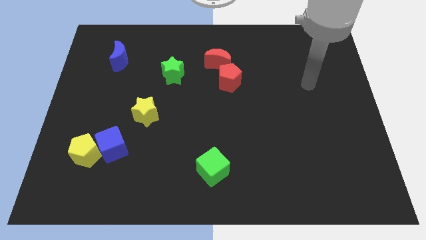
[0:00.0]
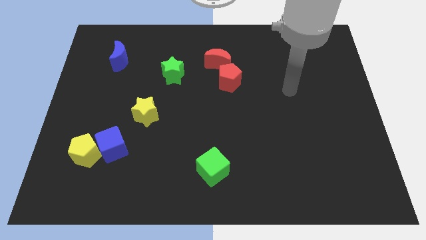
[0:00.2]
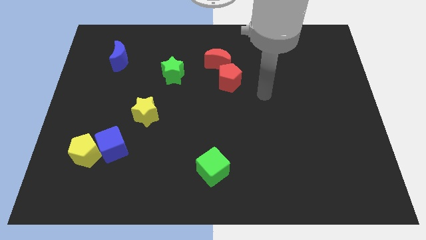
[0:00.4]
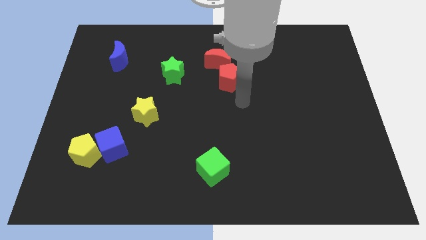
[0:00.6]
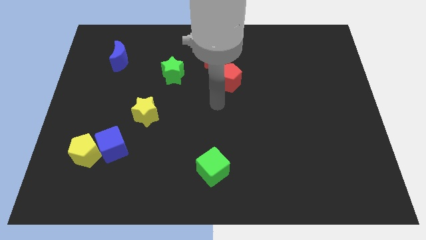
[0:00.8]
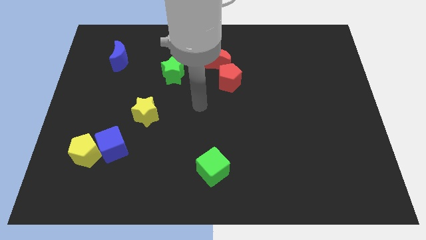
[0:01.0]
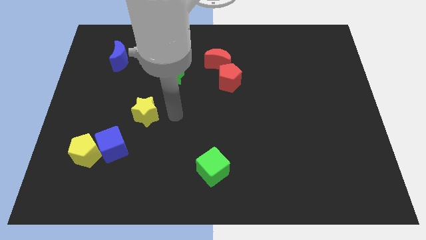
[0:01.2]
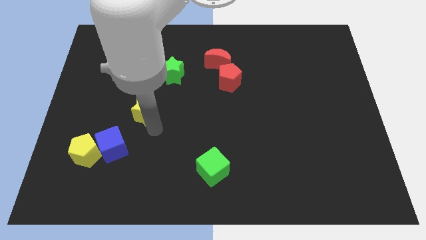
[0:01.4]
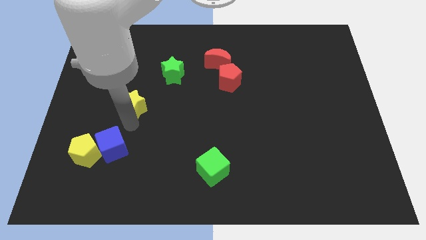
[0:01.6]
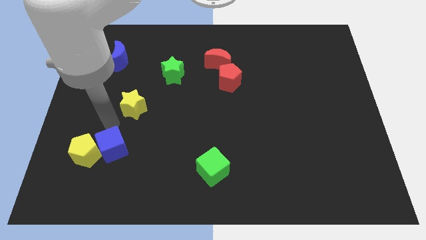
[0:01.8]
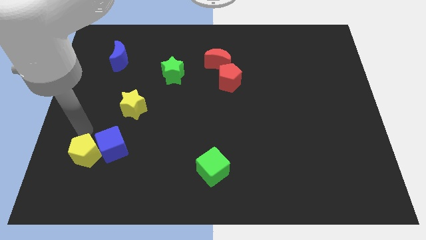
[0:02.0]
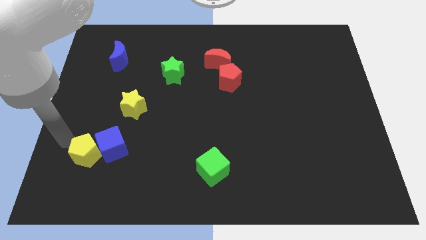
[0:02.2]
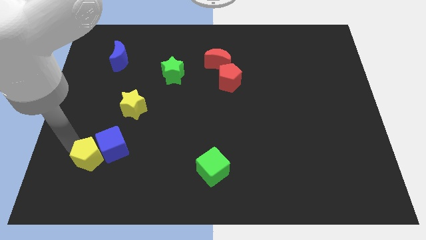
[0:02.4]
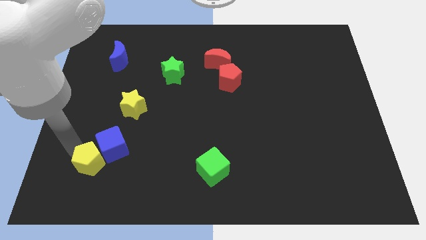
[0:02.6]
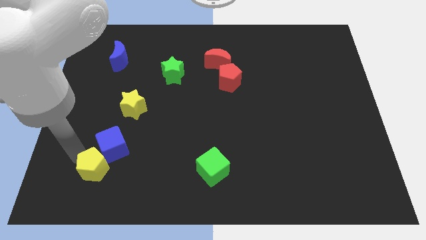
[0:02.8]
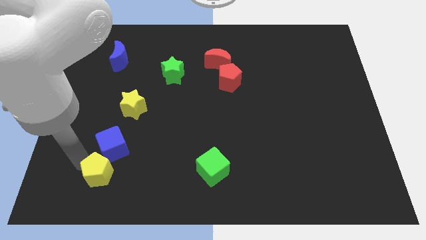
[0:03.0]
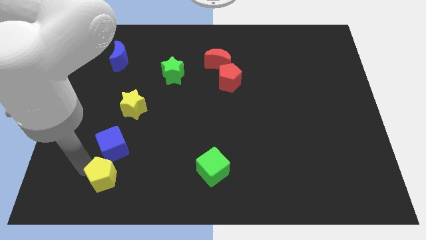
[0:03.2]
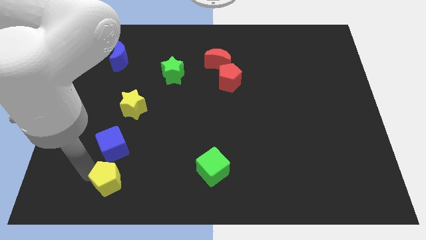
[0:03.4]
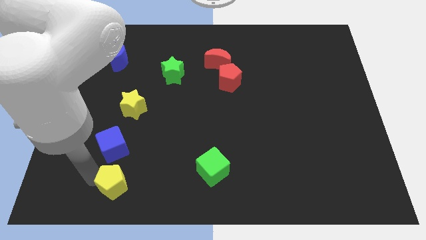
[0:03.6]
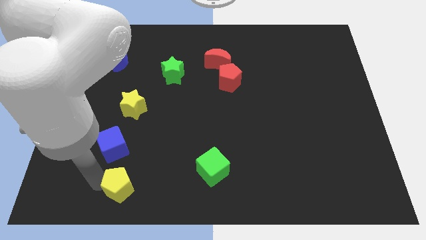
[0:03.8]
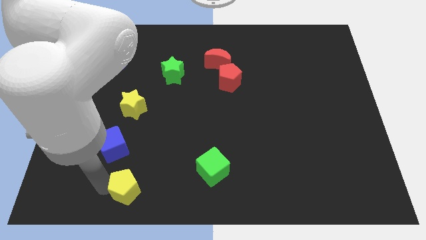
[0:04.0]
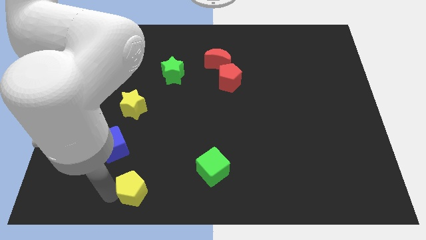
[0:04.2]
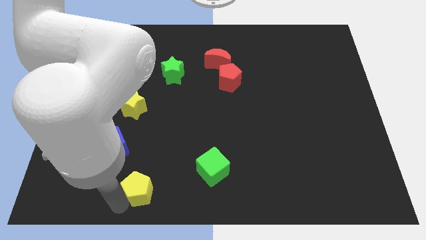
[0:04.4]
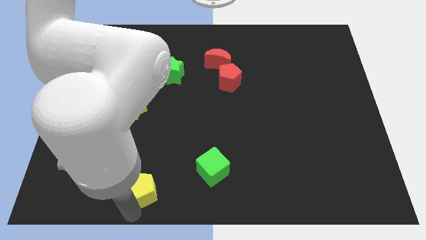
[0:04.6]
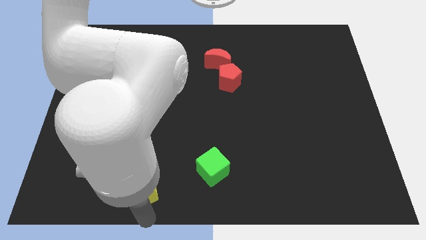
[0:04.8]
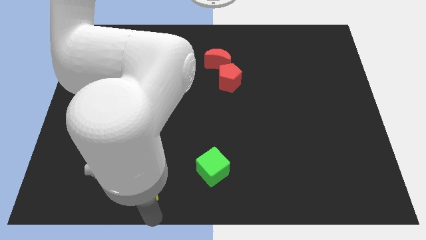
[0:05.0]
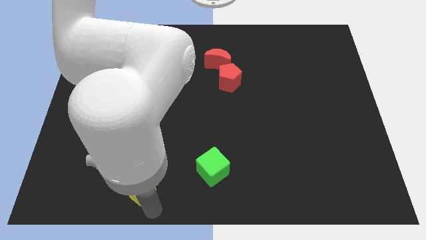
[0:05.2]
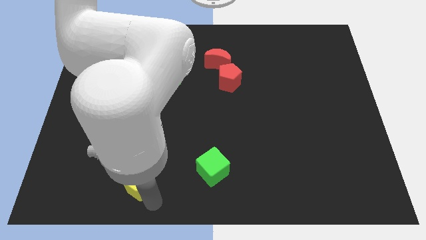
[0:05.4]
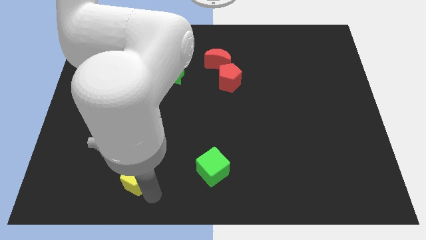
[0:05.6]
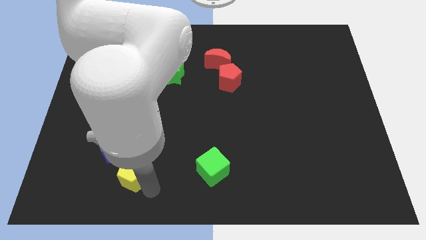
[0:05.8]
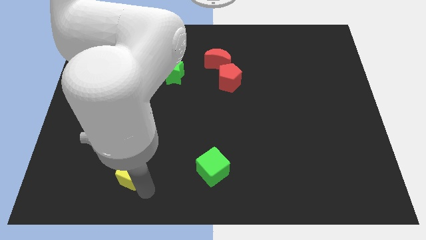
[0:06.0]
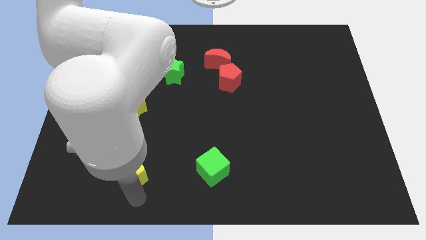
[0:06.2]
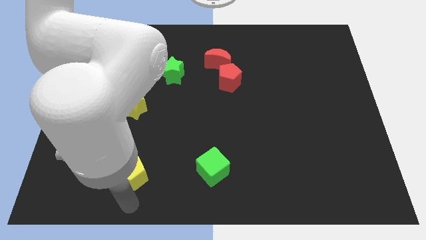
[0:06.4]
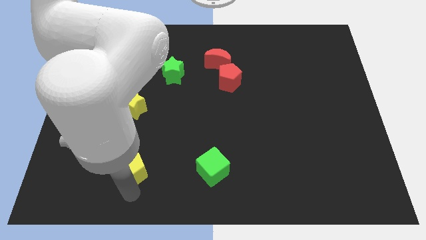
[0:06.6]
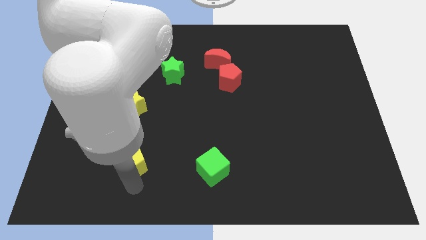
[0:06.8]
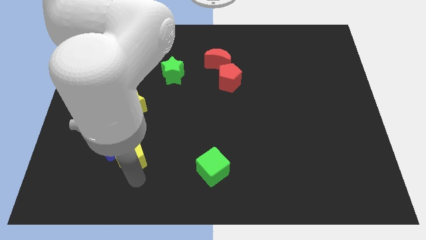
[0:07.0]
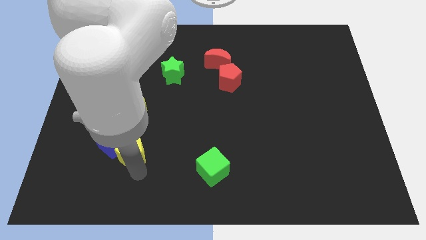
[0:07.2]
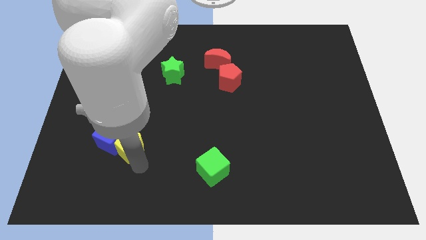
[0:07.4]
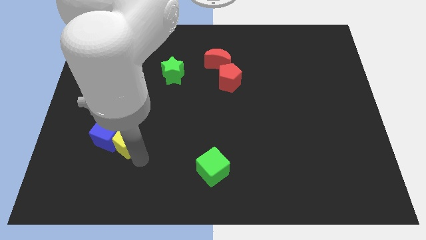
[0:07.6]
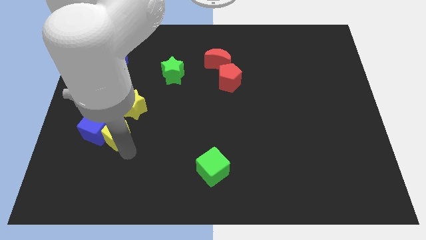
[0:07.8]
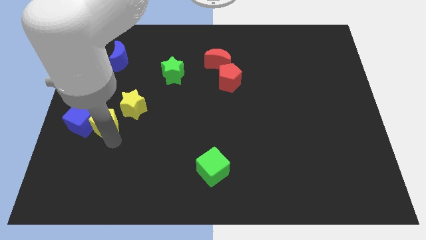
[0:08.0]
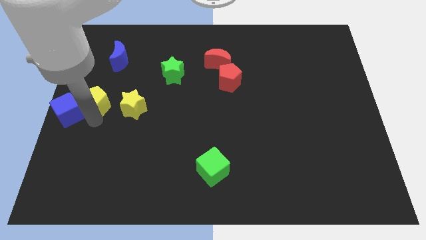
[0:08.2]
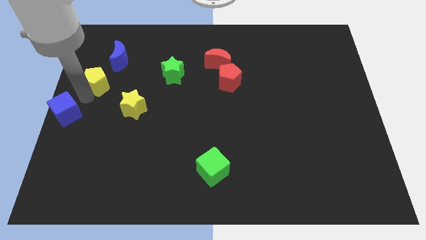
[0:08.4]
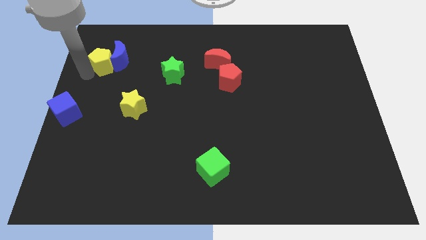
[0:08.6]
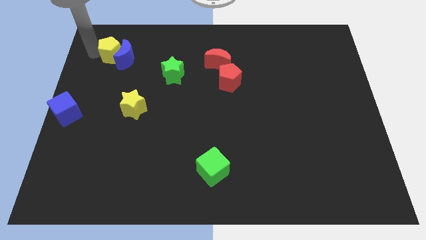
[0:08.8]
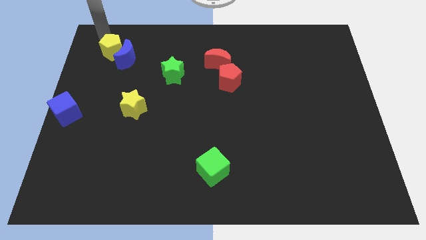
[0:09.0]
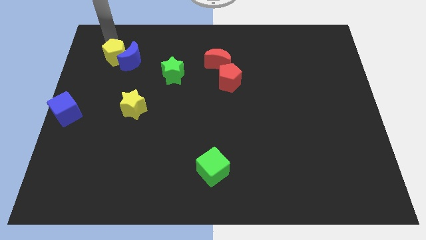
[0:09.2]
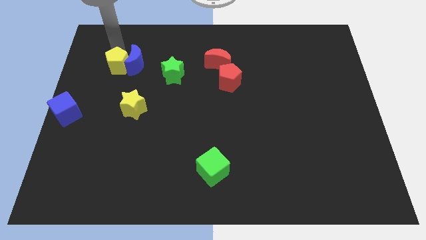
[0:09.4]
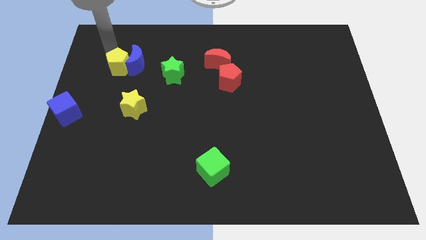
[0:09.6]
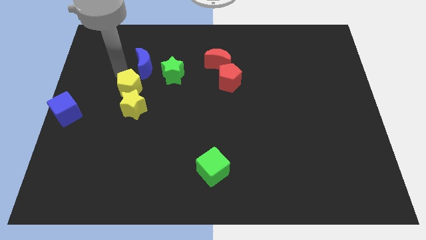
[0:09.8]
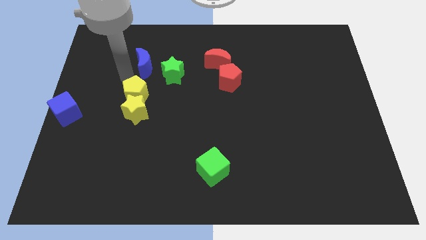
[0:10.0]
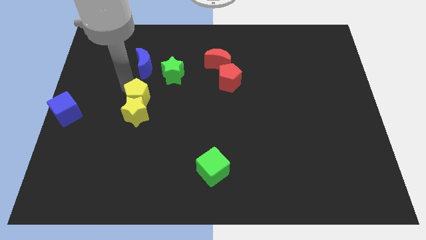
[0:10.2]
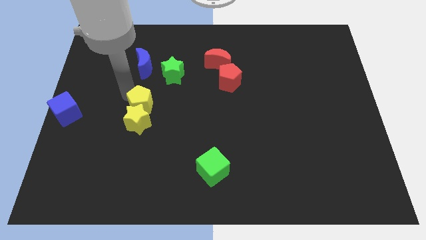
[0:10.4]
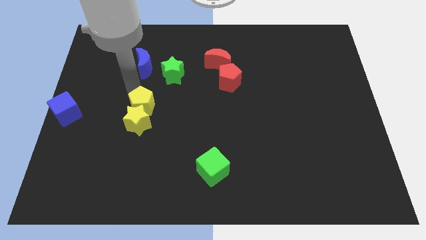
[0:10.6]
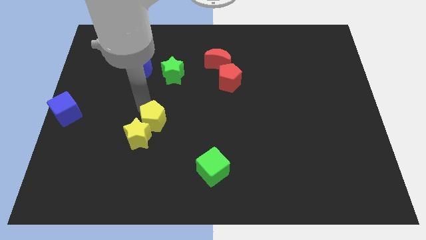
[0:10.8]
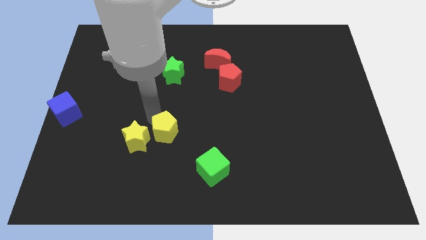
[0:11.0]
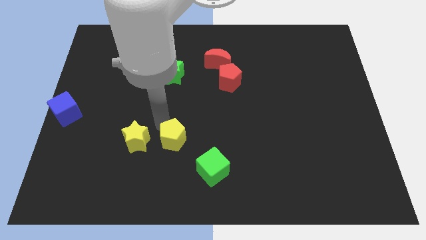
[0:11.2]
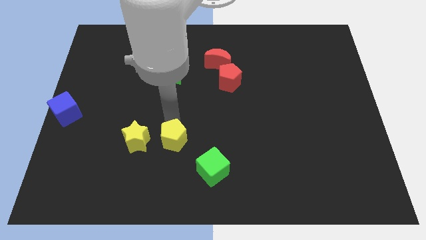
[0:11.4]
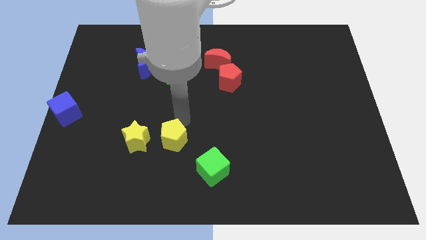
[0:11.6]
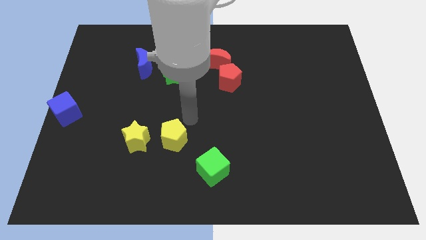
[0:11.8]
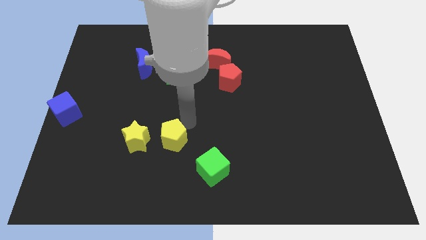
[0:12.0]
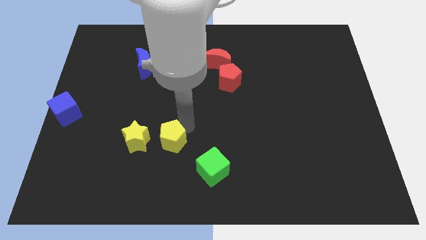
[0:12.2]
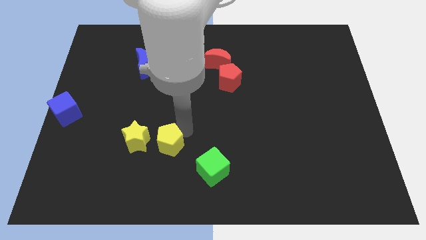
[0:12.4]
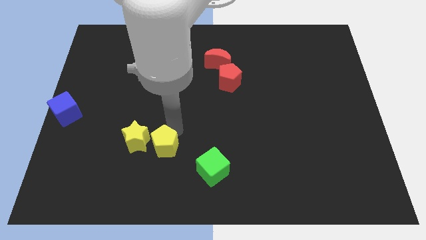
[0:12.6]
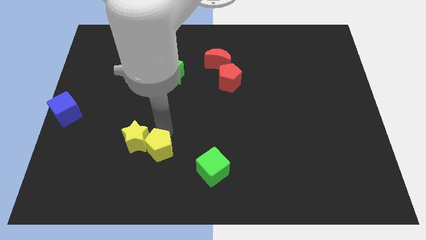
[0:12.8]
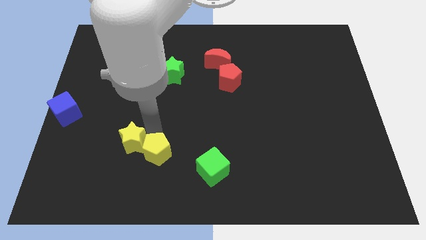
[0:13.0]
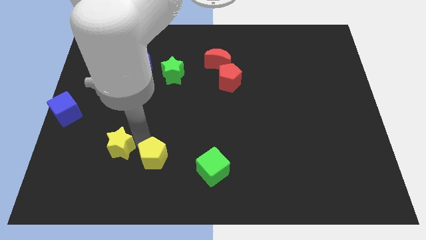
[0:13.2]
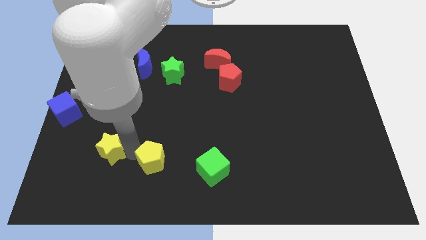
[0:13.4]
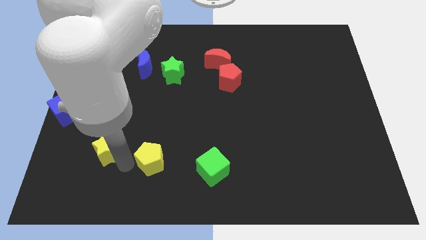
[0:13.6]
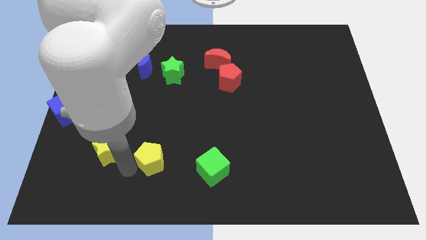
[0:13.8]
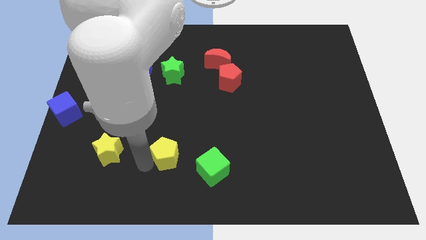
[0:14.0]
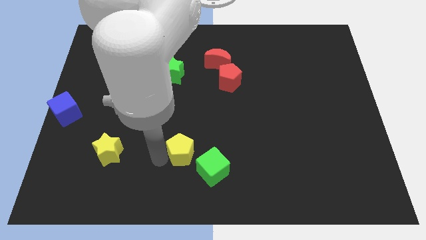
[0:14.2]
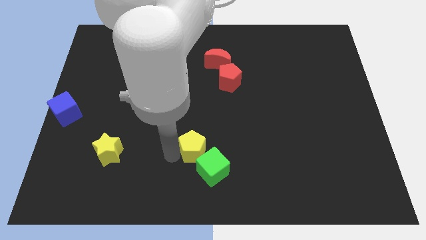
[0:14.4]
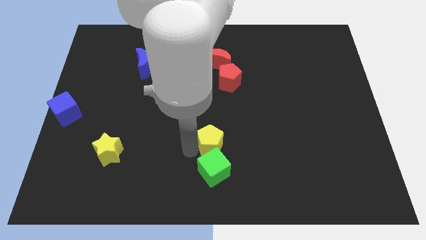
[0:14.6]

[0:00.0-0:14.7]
put the yellow pentagon to the top right side of the green cube
